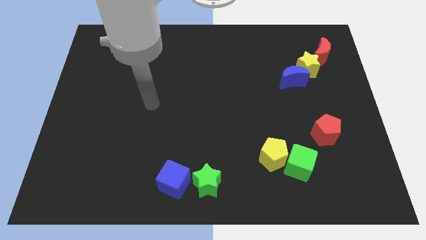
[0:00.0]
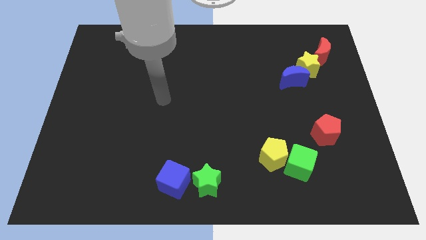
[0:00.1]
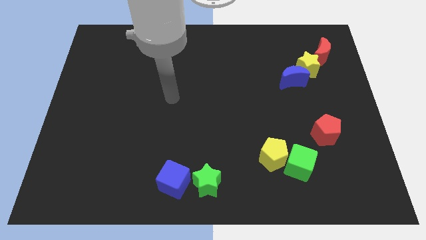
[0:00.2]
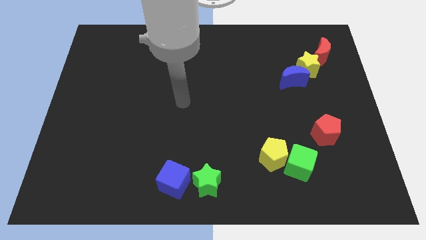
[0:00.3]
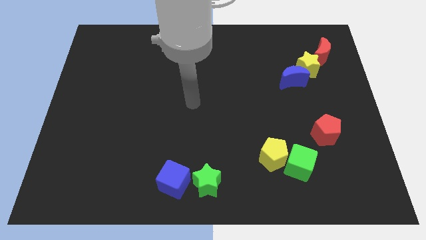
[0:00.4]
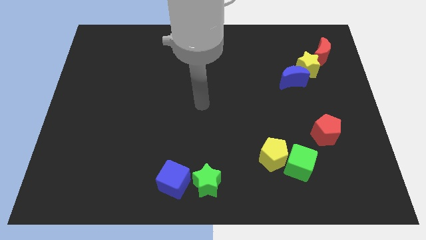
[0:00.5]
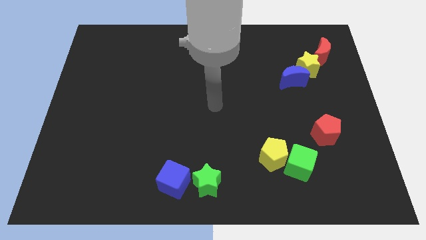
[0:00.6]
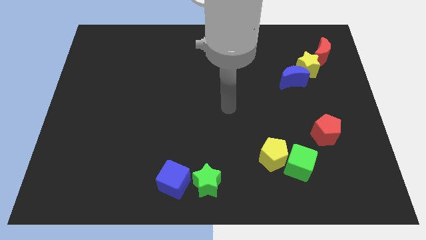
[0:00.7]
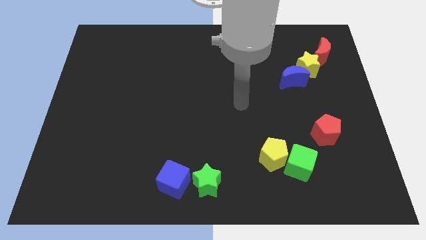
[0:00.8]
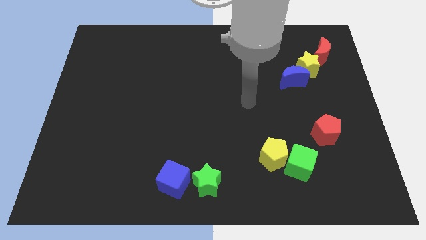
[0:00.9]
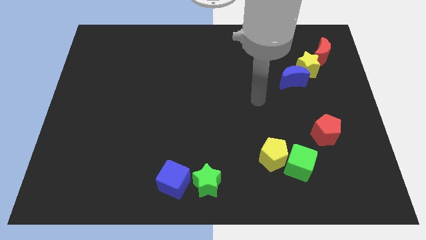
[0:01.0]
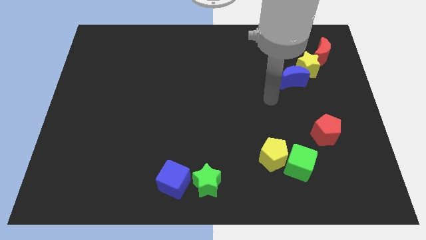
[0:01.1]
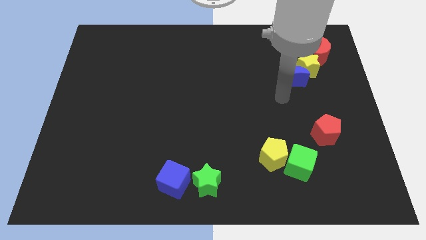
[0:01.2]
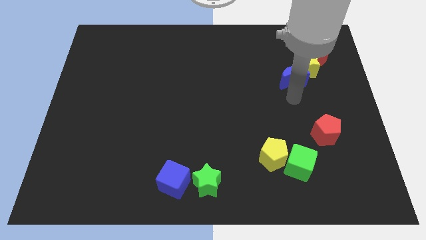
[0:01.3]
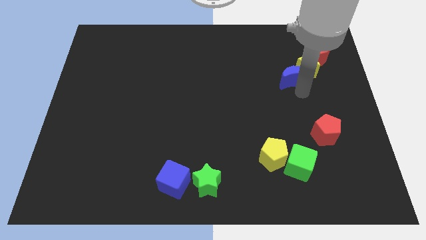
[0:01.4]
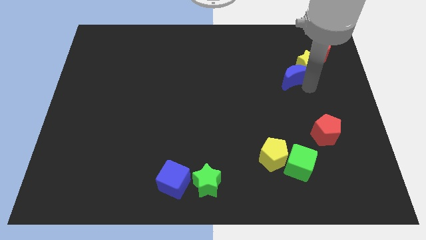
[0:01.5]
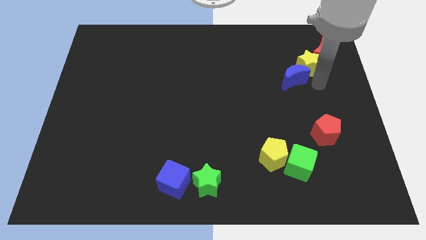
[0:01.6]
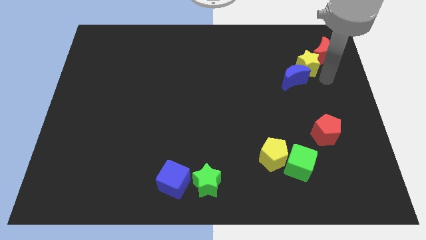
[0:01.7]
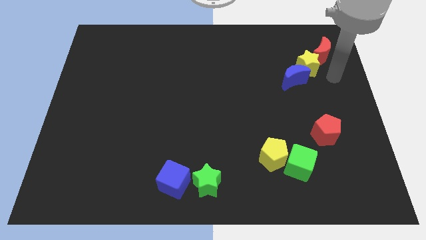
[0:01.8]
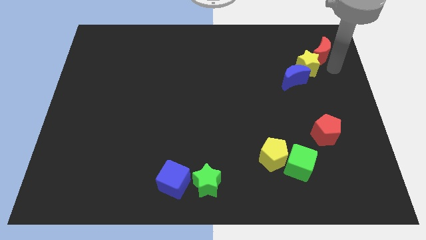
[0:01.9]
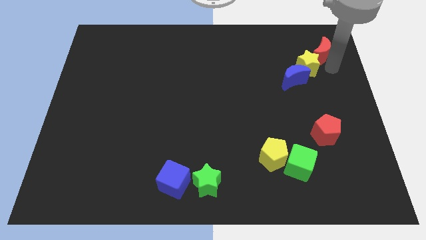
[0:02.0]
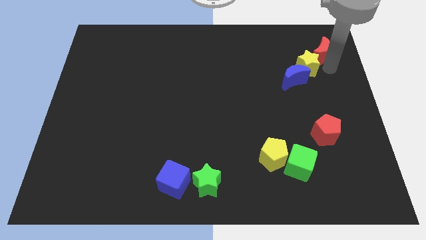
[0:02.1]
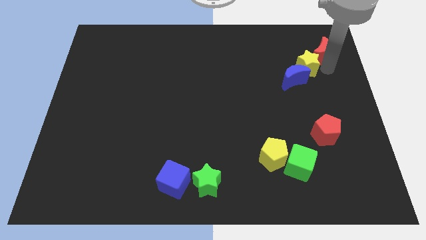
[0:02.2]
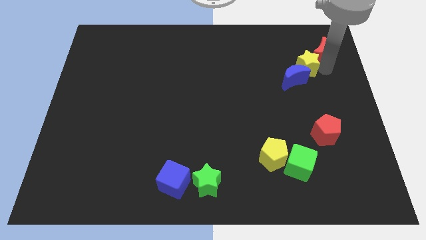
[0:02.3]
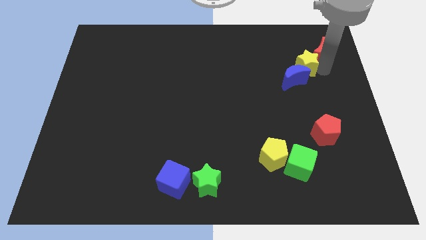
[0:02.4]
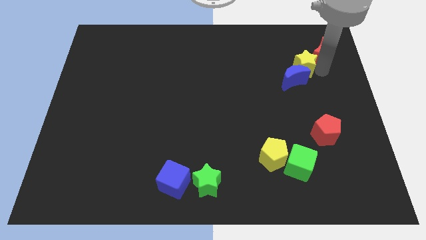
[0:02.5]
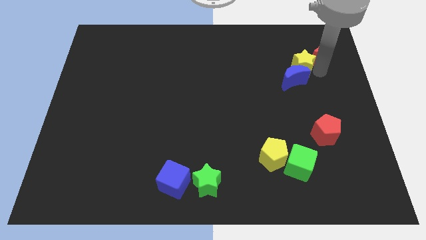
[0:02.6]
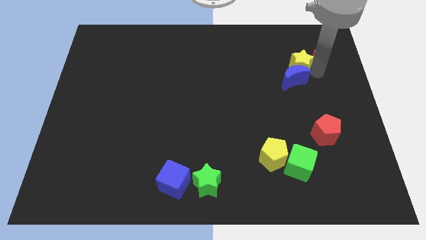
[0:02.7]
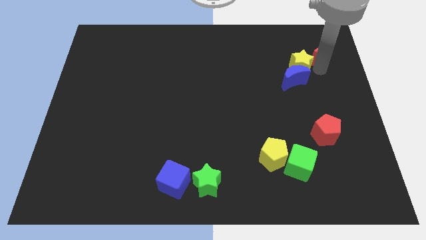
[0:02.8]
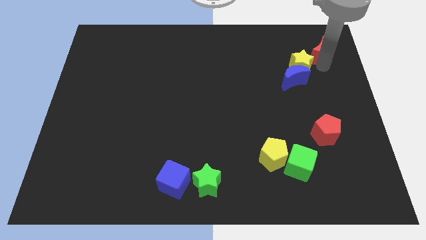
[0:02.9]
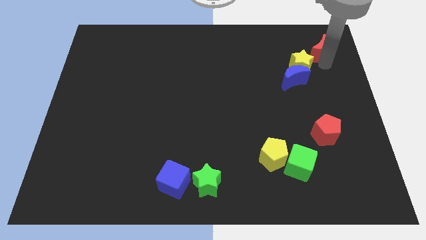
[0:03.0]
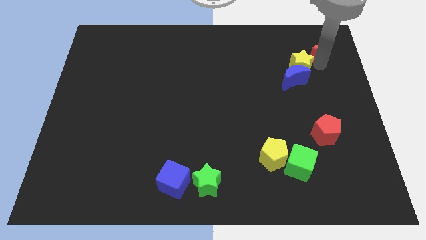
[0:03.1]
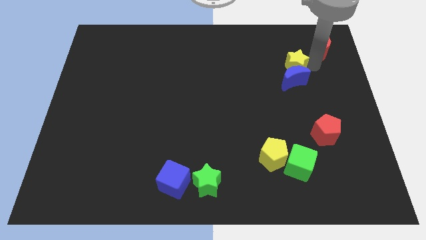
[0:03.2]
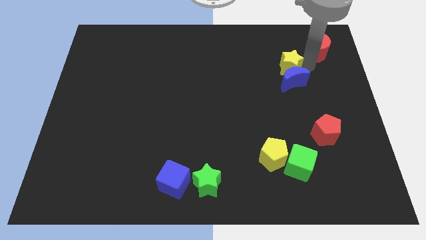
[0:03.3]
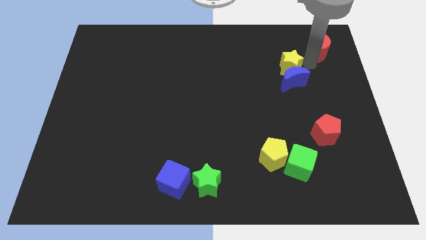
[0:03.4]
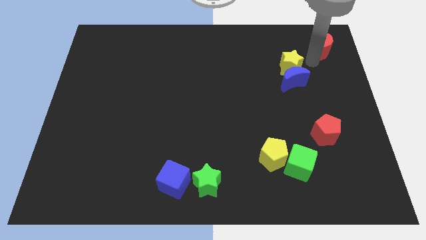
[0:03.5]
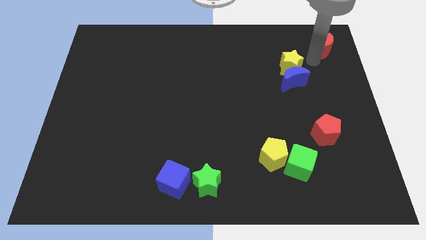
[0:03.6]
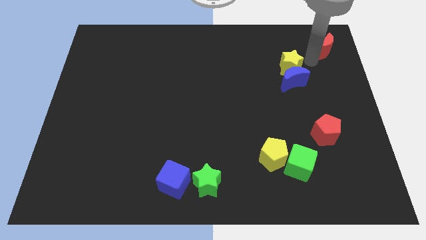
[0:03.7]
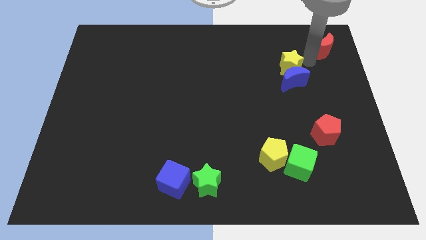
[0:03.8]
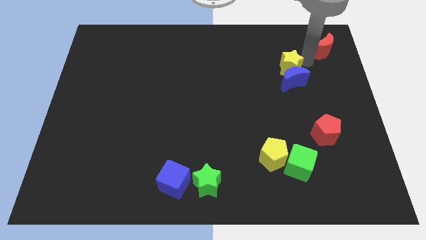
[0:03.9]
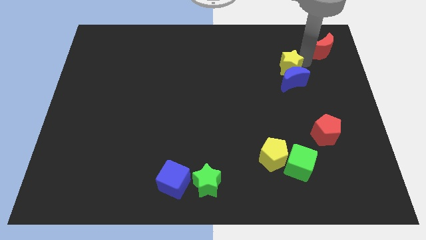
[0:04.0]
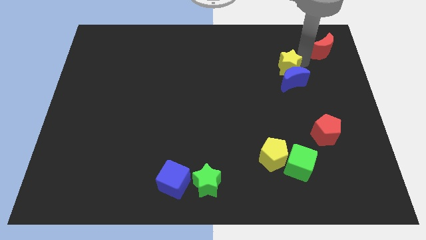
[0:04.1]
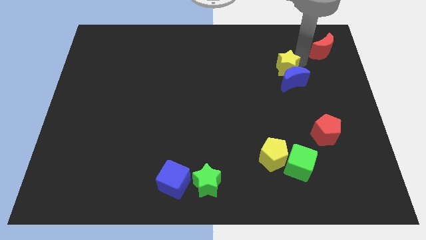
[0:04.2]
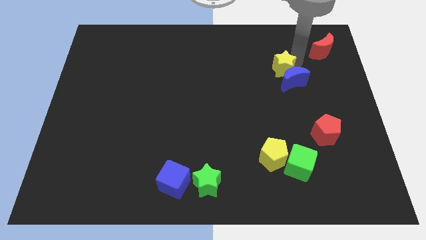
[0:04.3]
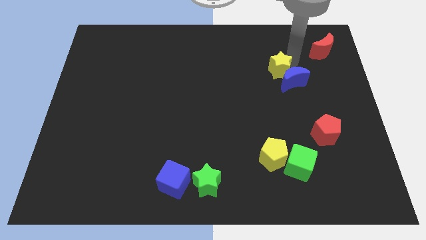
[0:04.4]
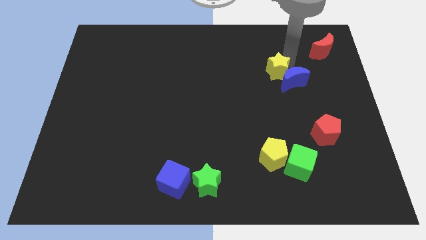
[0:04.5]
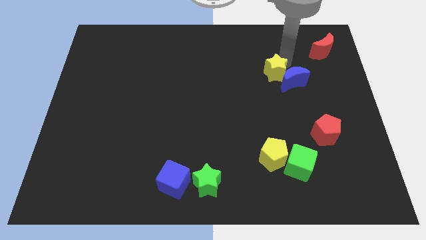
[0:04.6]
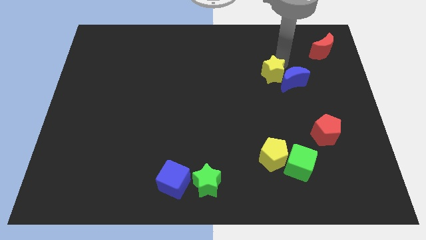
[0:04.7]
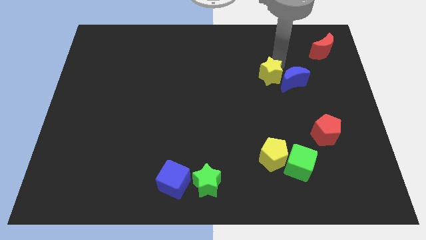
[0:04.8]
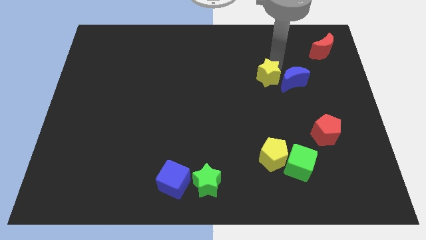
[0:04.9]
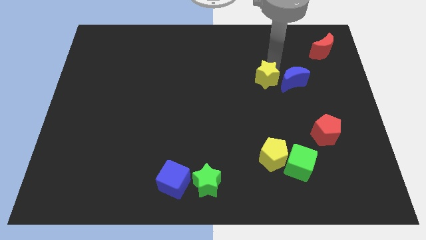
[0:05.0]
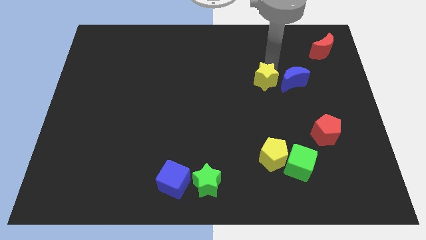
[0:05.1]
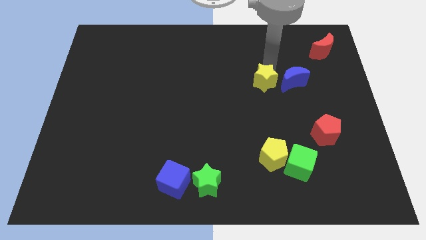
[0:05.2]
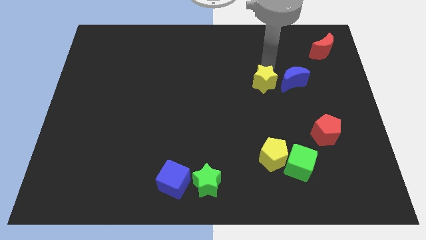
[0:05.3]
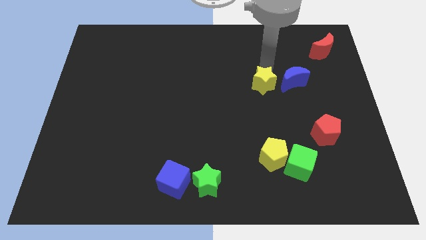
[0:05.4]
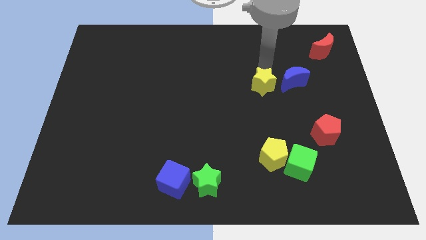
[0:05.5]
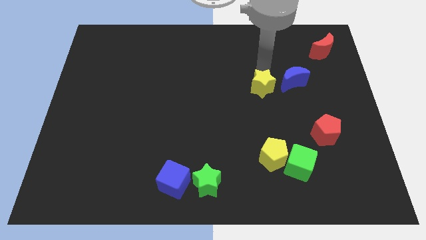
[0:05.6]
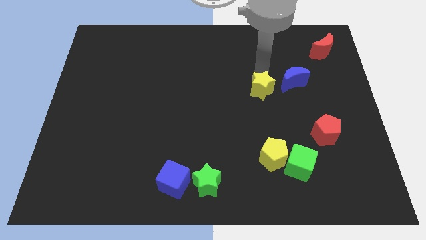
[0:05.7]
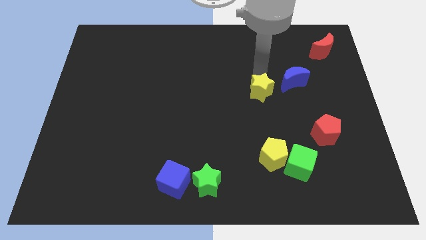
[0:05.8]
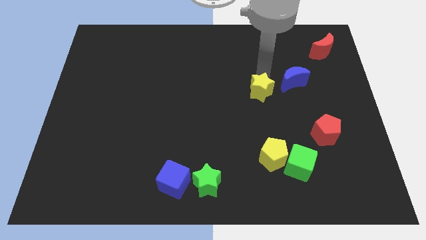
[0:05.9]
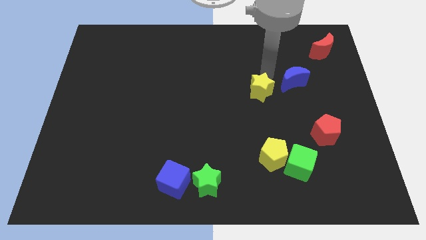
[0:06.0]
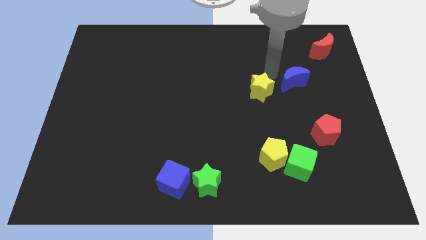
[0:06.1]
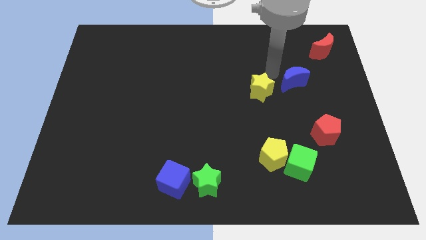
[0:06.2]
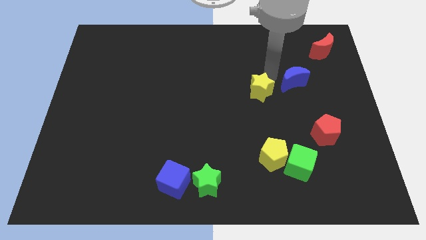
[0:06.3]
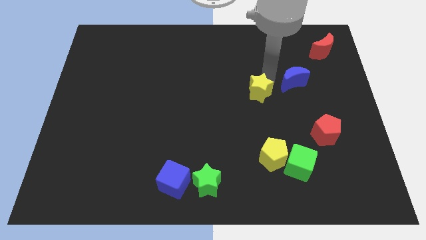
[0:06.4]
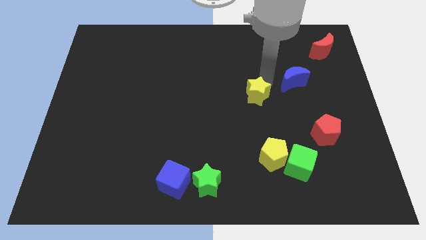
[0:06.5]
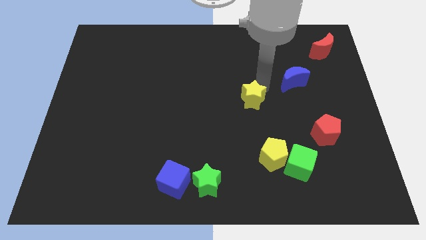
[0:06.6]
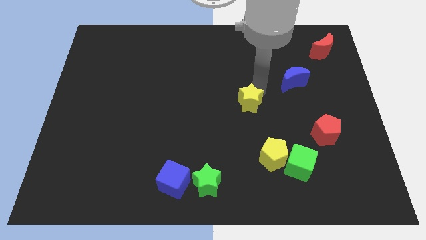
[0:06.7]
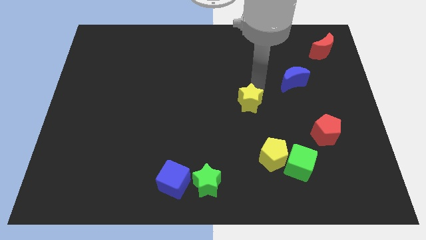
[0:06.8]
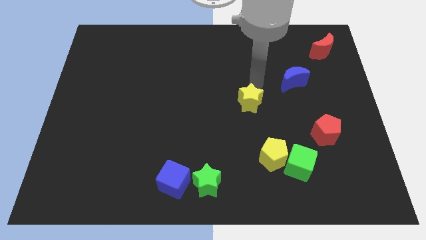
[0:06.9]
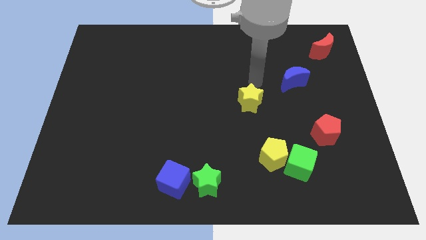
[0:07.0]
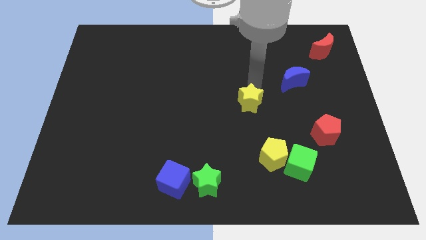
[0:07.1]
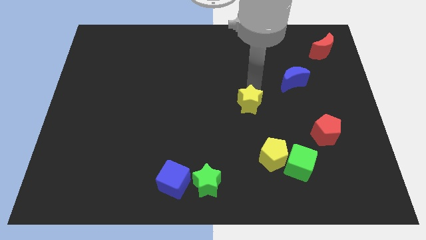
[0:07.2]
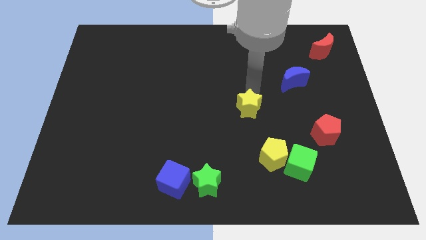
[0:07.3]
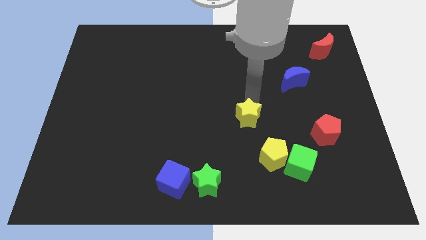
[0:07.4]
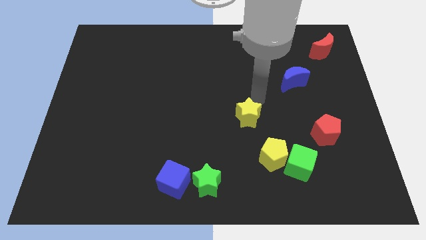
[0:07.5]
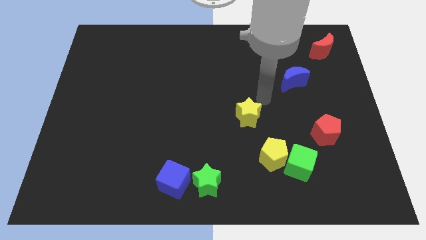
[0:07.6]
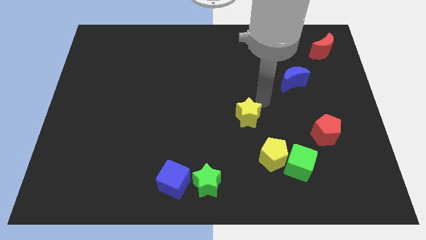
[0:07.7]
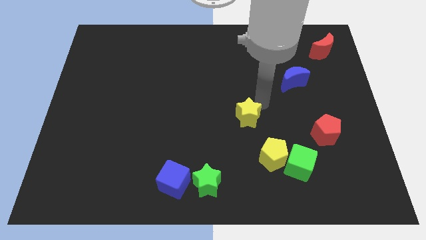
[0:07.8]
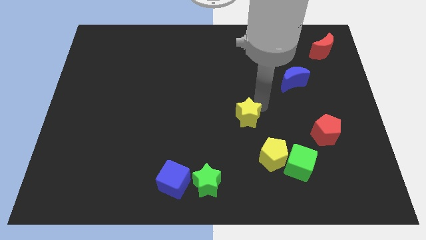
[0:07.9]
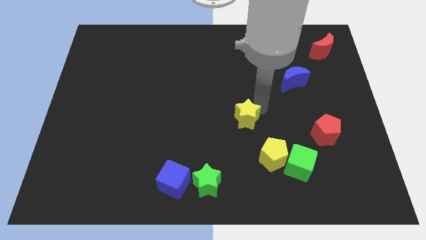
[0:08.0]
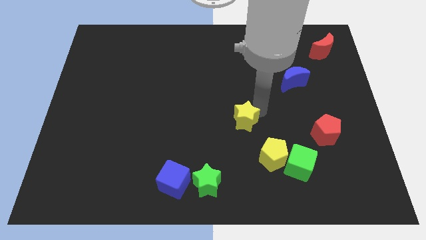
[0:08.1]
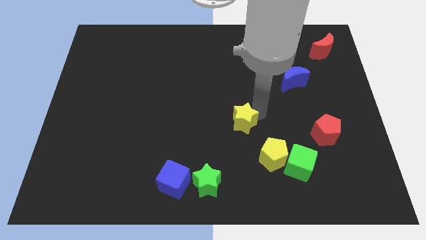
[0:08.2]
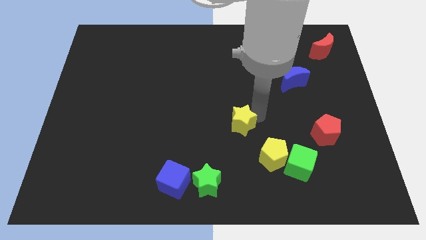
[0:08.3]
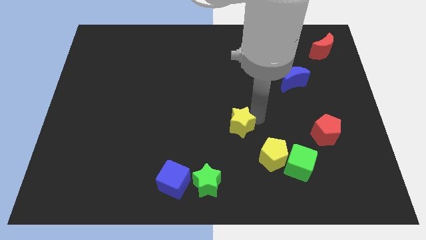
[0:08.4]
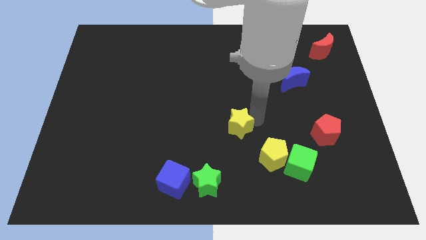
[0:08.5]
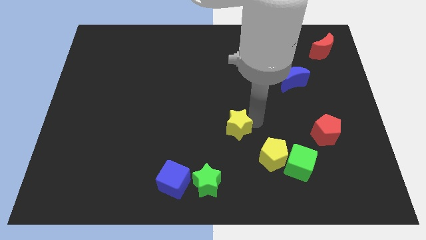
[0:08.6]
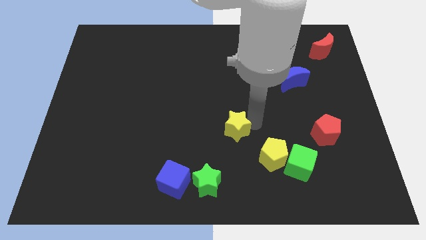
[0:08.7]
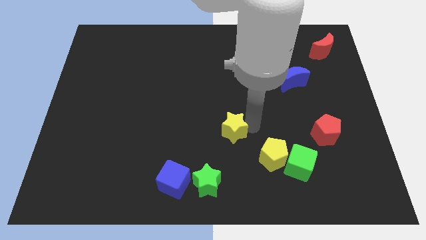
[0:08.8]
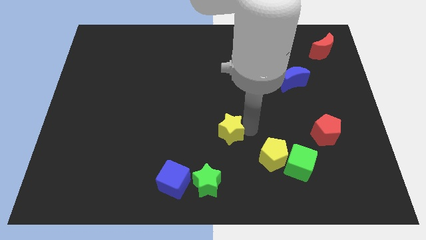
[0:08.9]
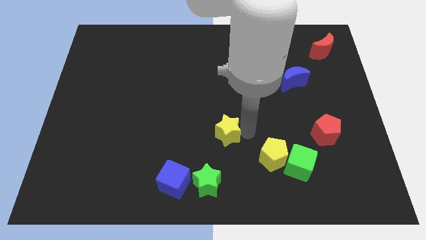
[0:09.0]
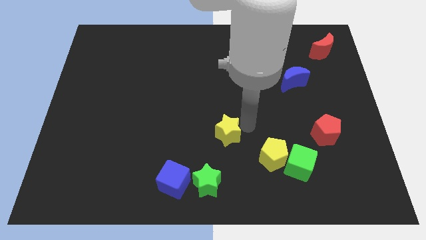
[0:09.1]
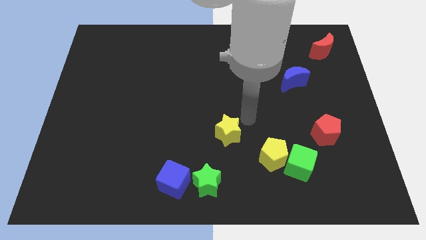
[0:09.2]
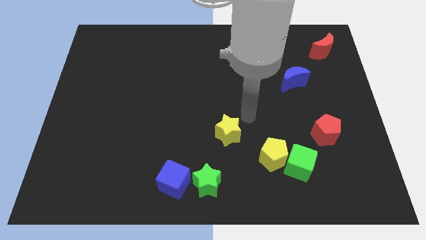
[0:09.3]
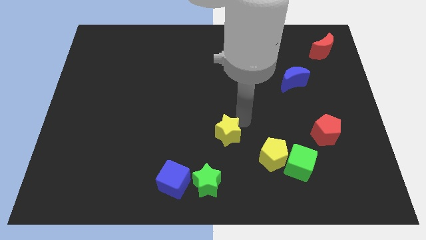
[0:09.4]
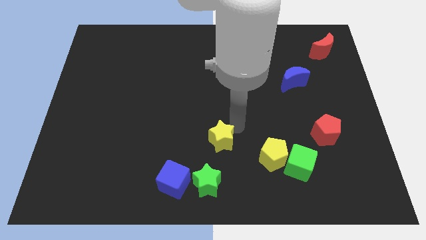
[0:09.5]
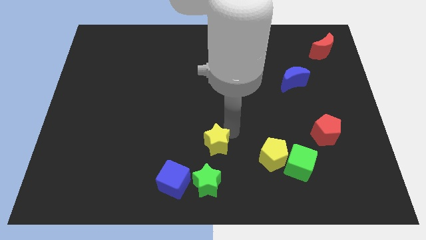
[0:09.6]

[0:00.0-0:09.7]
slide the yellow star to the top right side of the blue cube
